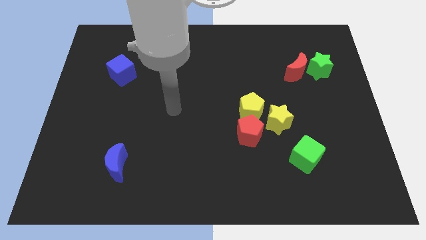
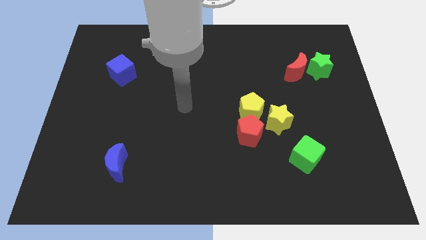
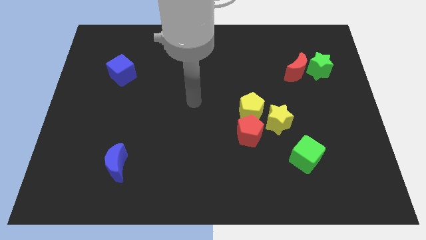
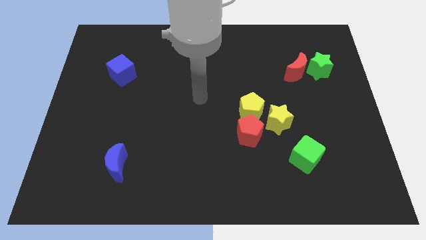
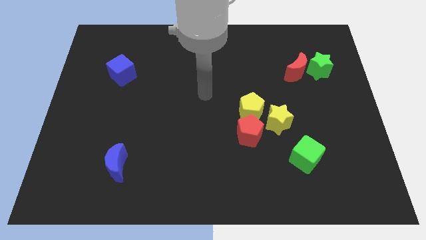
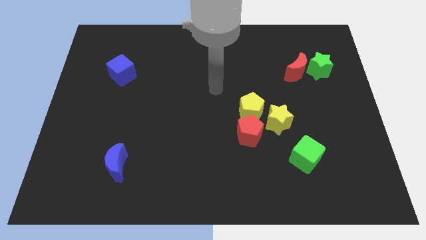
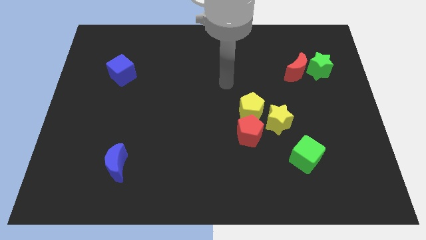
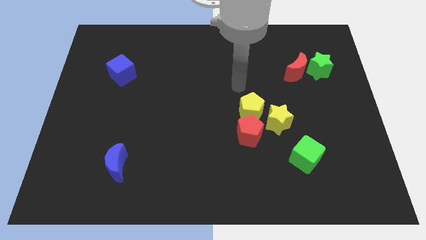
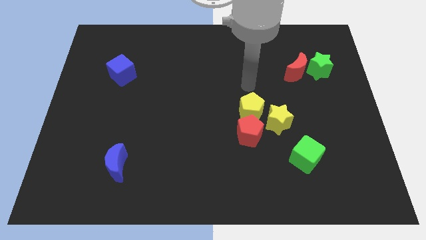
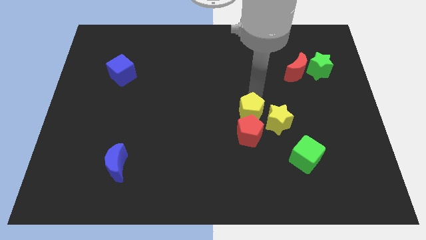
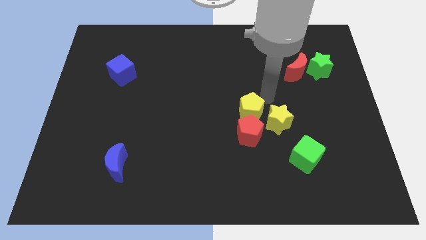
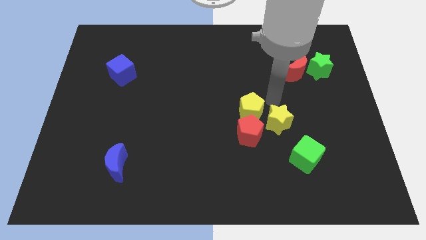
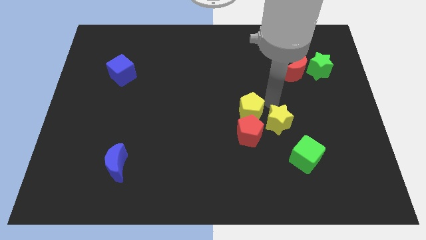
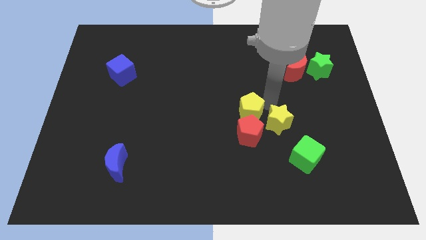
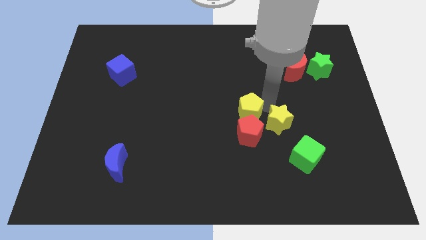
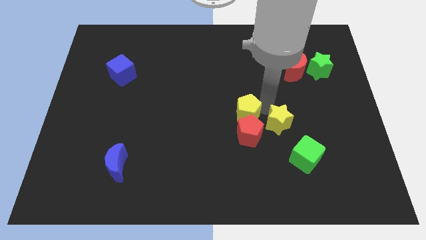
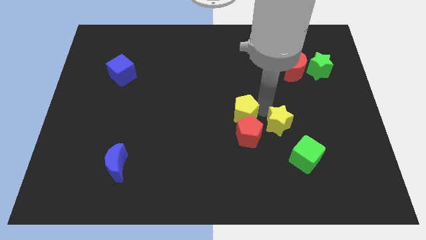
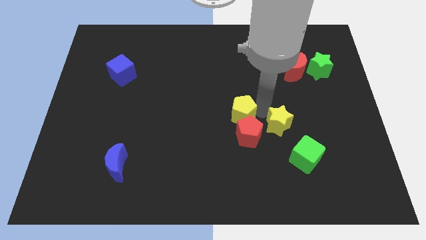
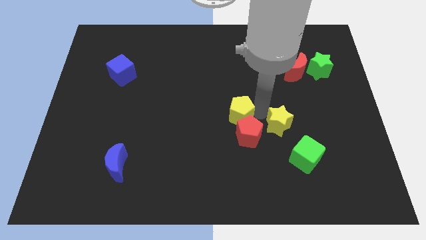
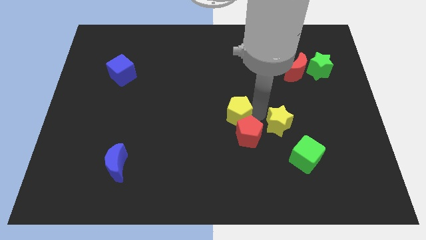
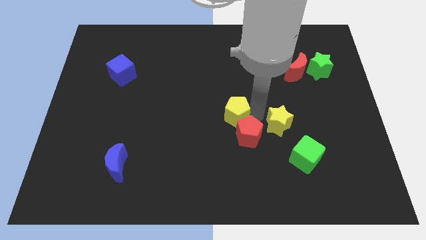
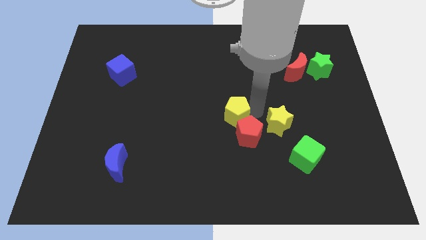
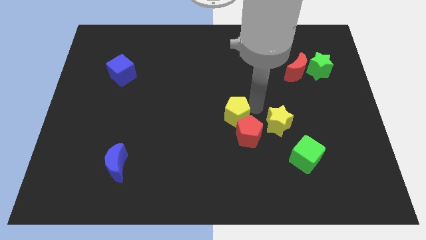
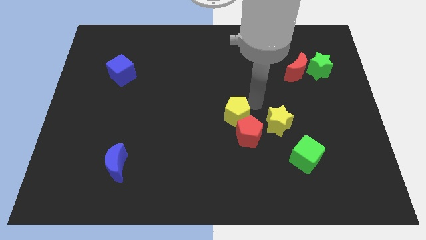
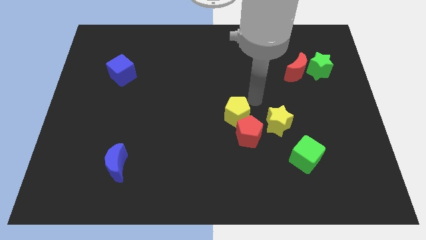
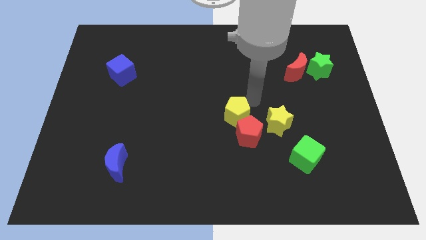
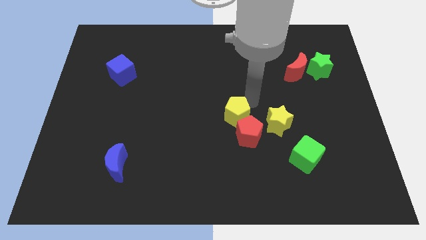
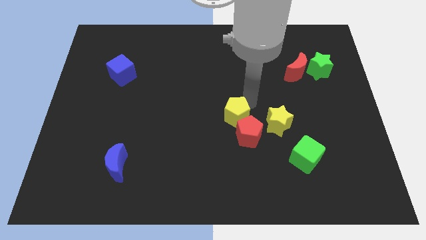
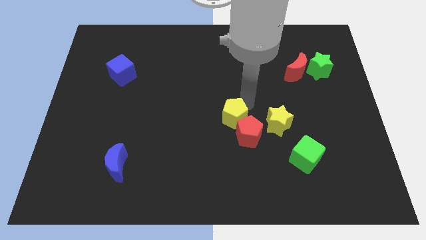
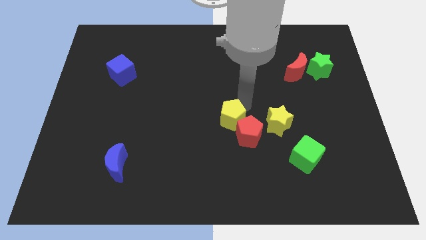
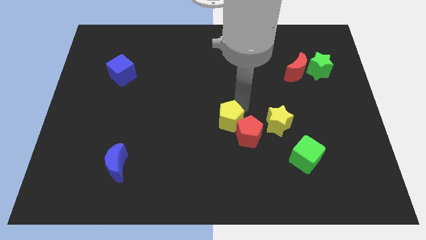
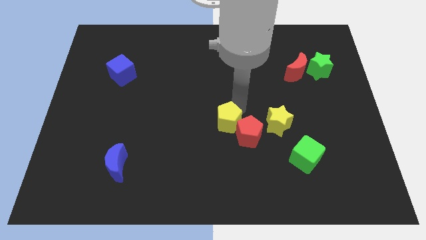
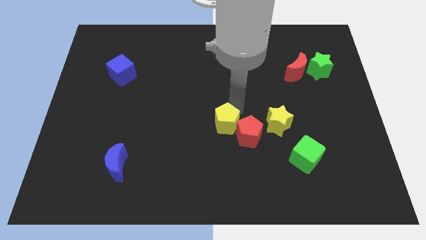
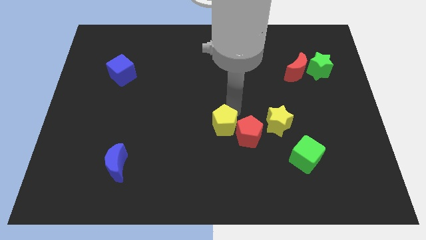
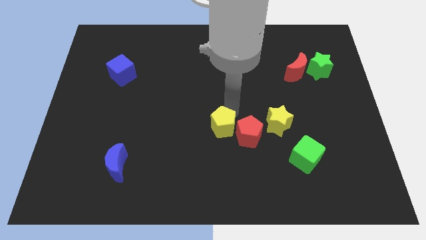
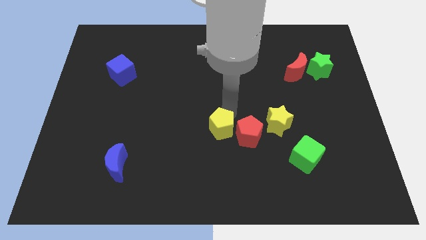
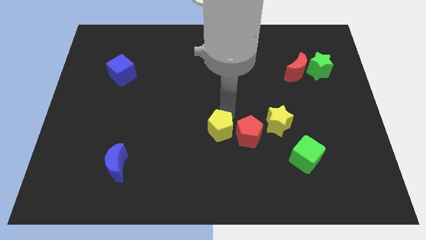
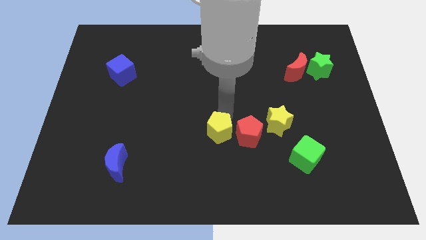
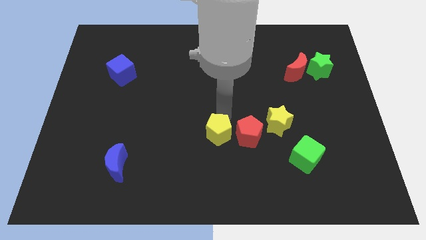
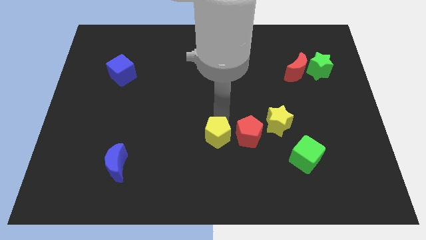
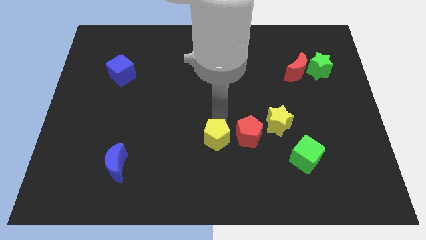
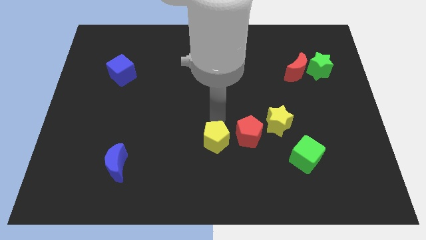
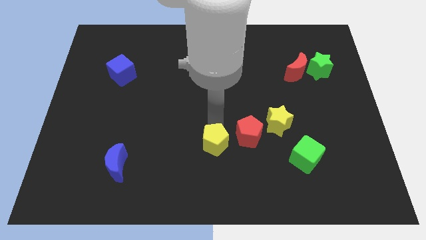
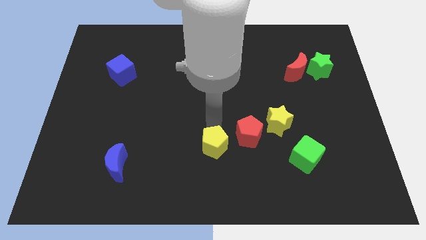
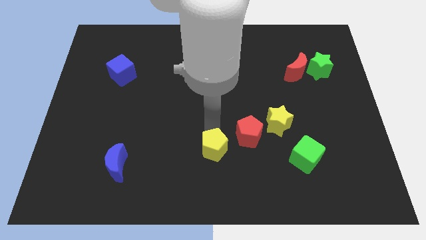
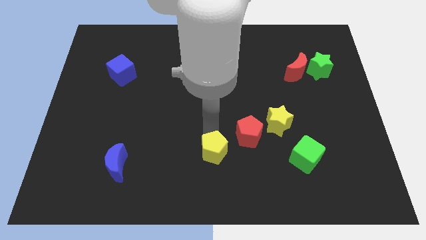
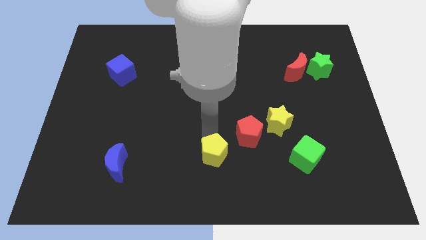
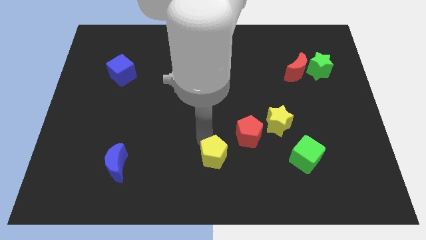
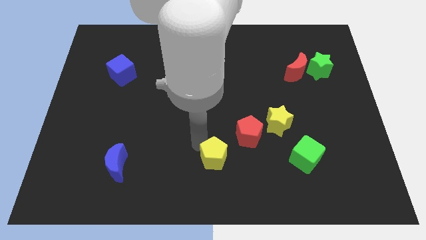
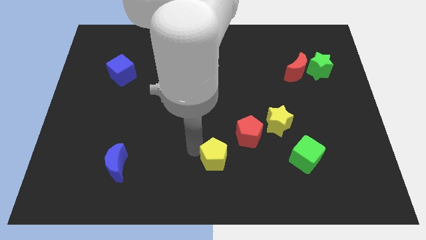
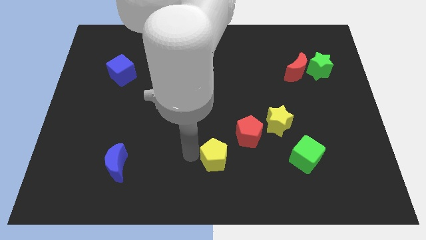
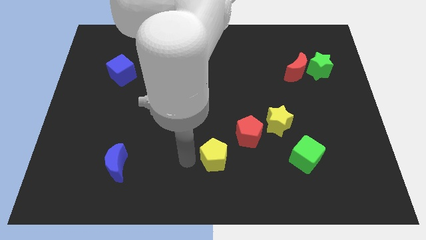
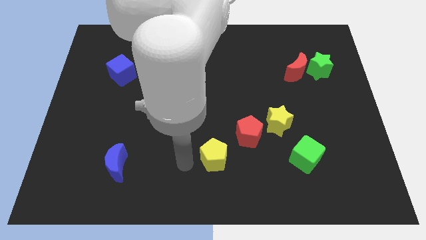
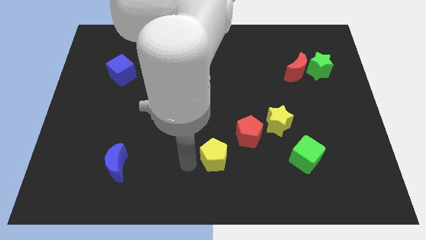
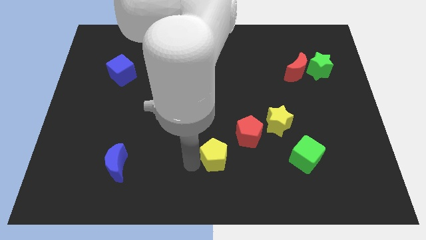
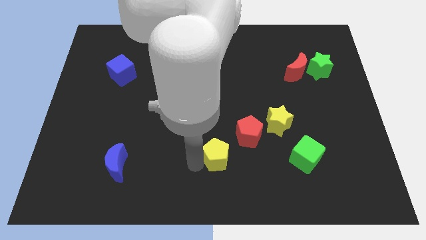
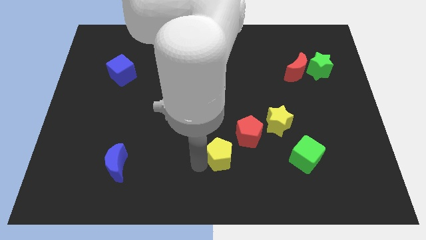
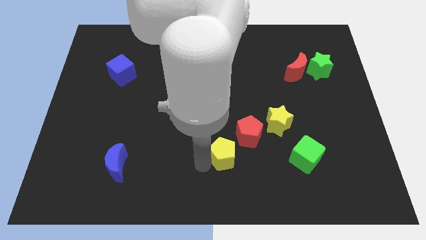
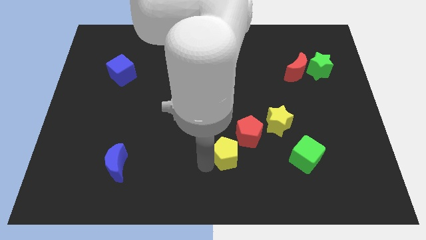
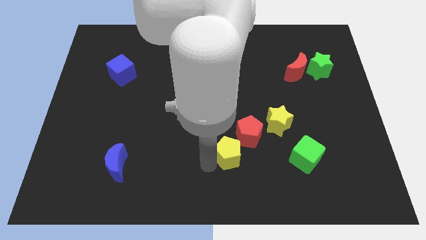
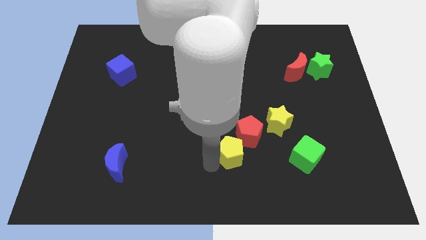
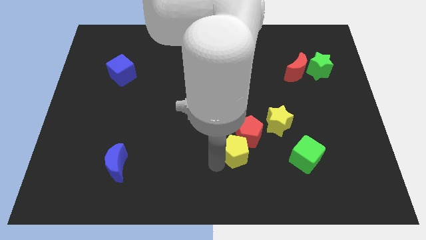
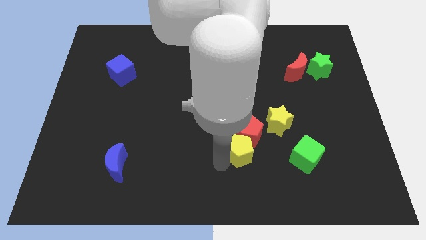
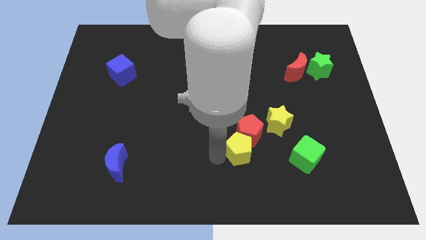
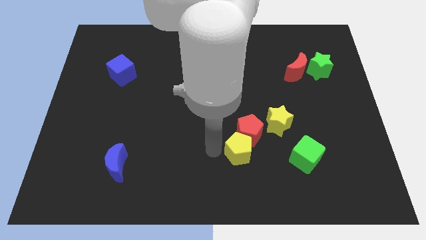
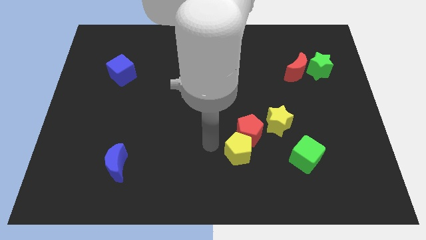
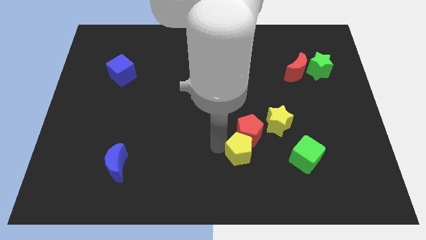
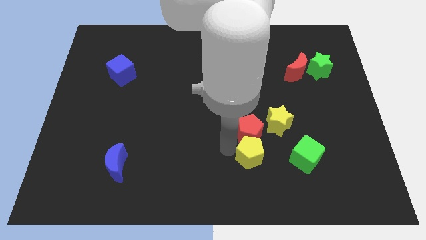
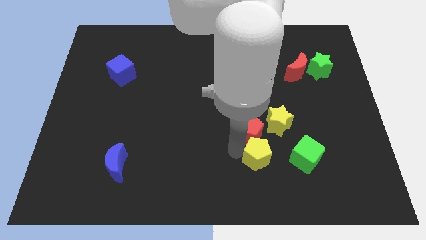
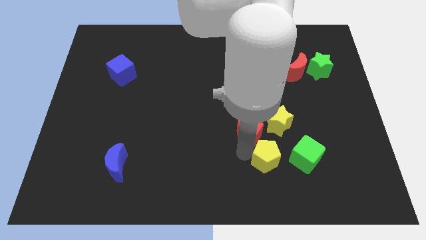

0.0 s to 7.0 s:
slide the yellow pentagon to the bottom side of the yellow star
